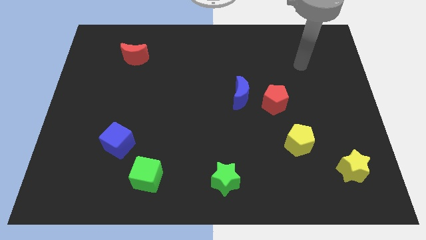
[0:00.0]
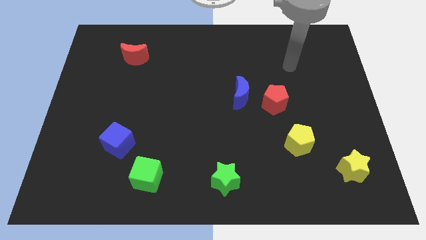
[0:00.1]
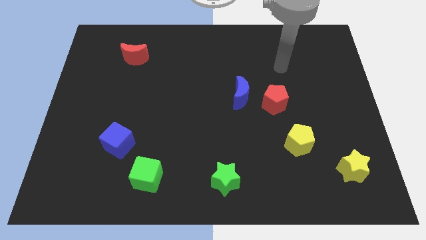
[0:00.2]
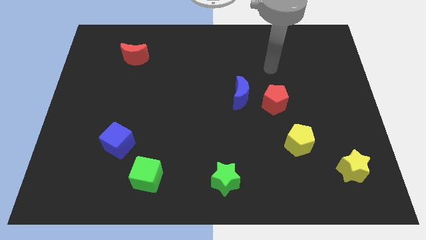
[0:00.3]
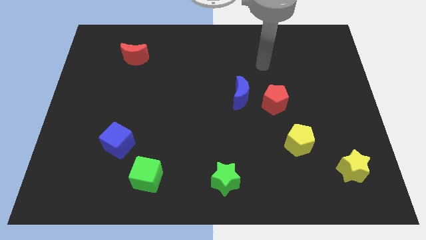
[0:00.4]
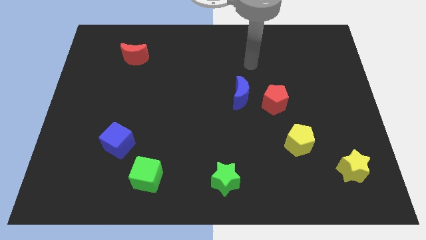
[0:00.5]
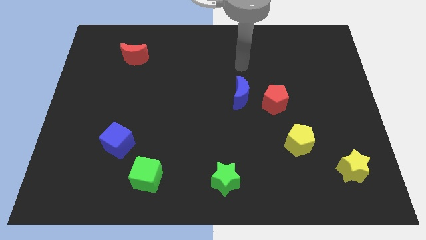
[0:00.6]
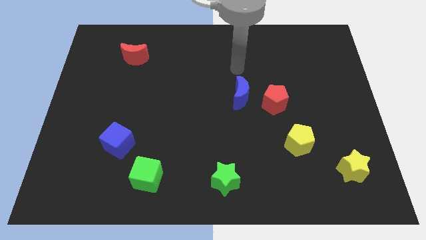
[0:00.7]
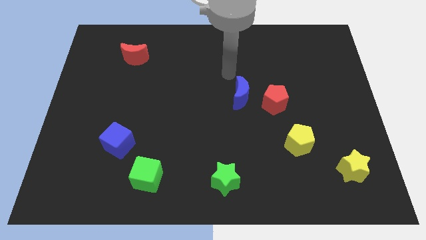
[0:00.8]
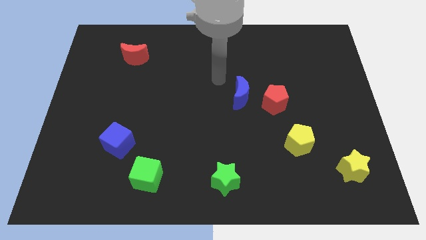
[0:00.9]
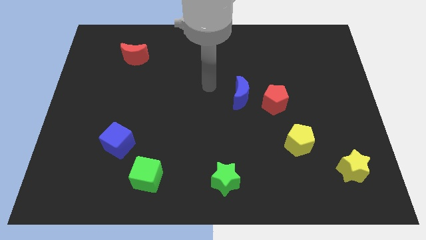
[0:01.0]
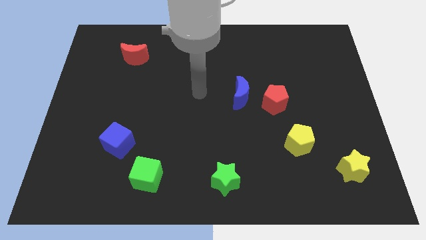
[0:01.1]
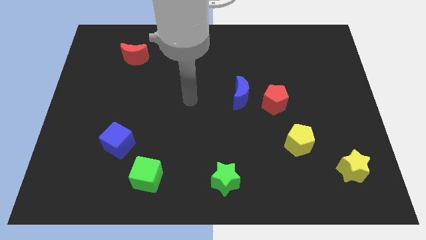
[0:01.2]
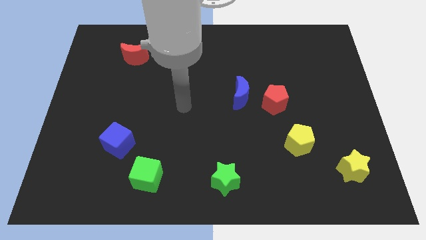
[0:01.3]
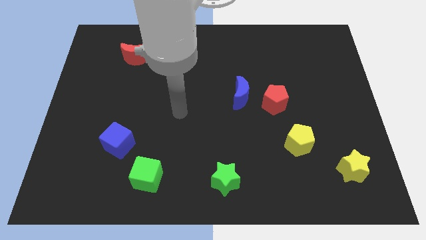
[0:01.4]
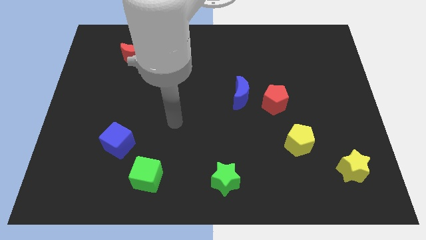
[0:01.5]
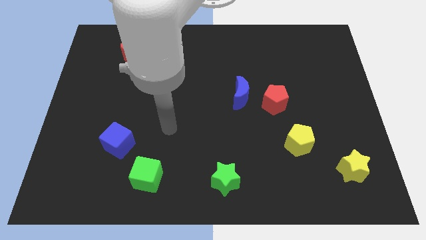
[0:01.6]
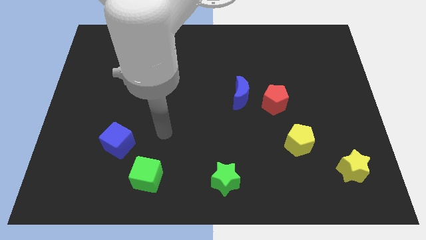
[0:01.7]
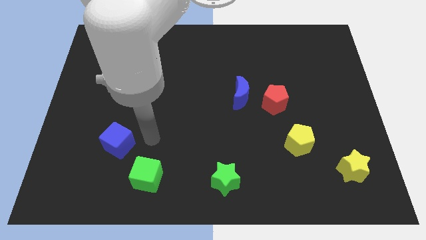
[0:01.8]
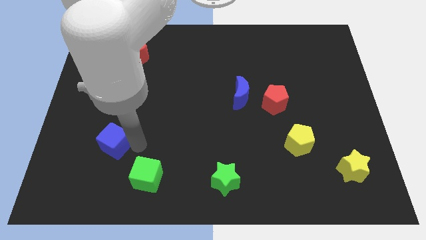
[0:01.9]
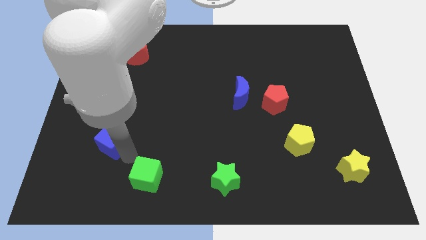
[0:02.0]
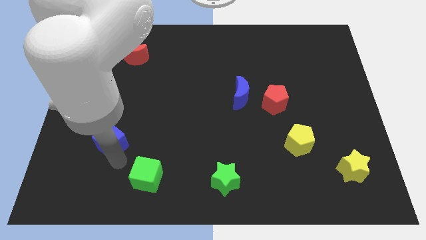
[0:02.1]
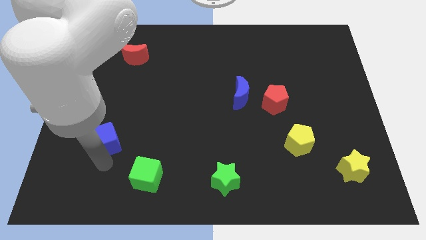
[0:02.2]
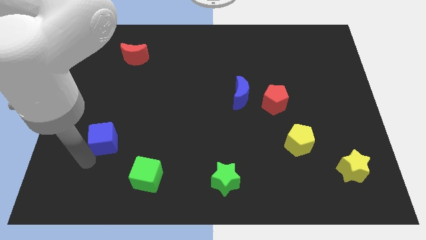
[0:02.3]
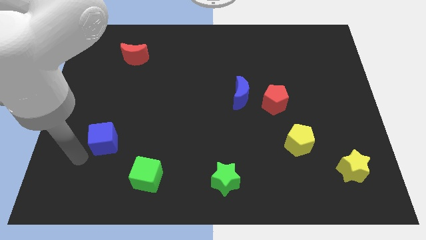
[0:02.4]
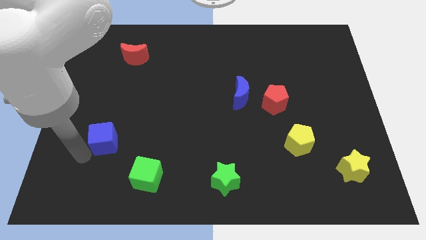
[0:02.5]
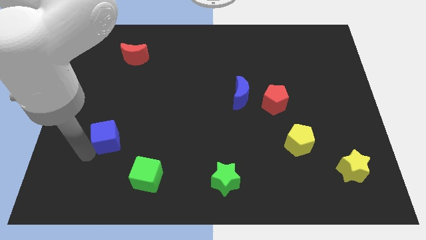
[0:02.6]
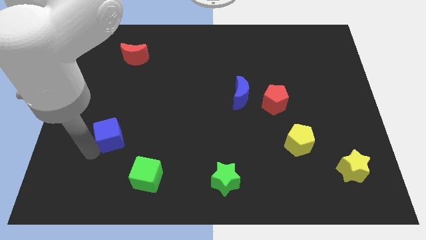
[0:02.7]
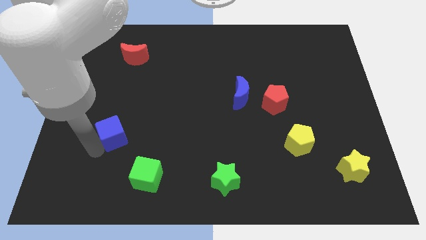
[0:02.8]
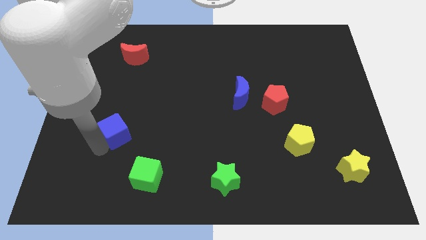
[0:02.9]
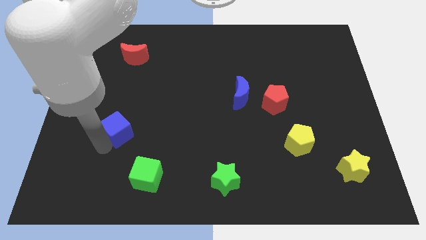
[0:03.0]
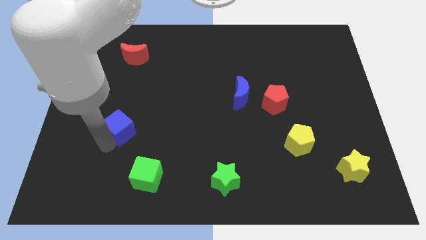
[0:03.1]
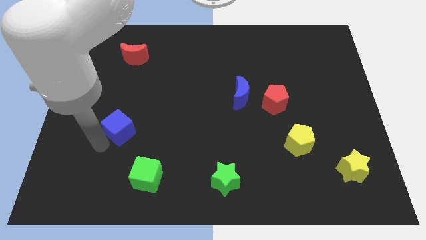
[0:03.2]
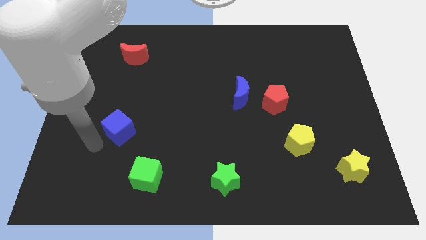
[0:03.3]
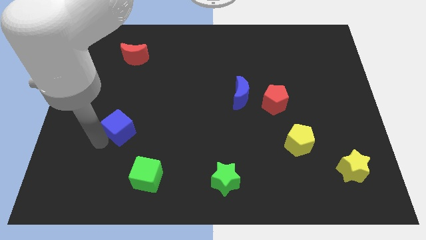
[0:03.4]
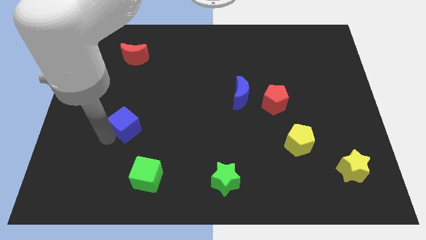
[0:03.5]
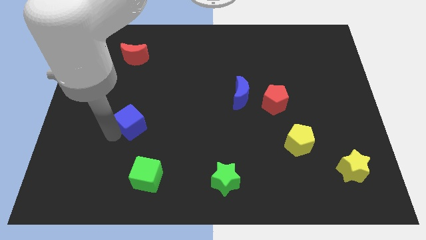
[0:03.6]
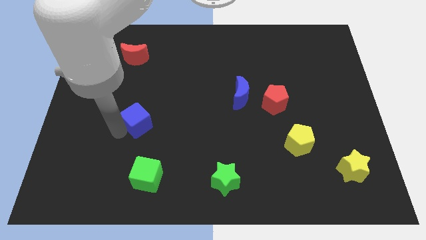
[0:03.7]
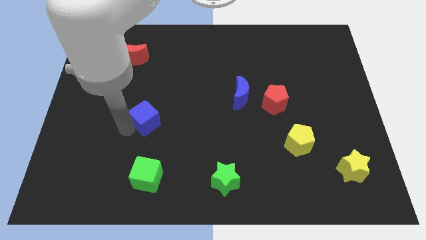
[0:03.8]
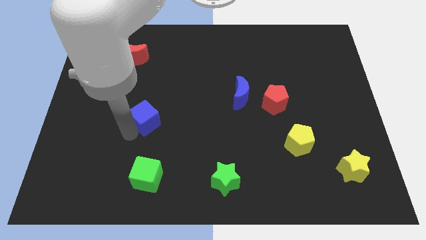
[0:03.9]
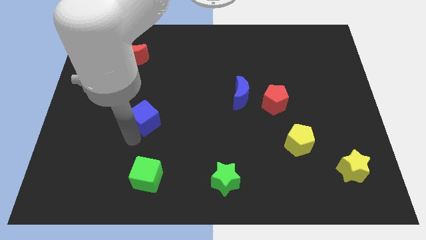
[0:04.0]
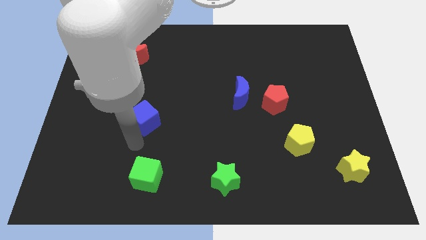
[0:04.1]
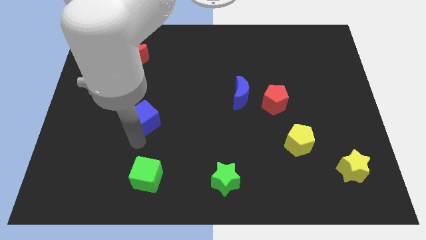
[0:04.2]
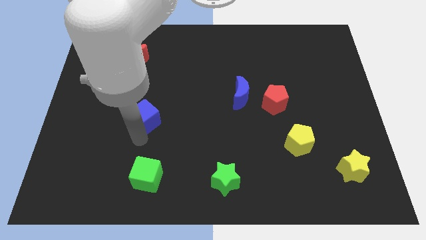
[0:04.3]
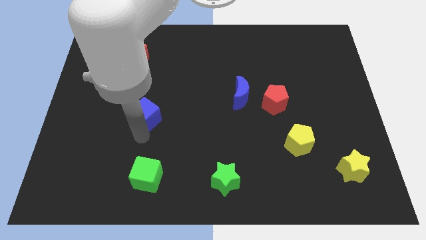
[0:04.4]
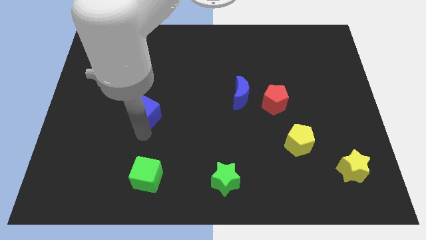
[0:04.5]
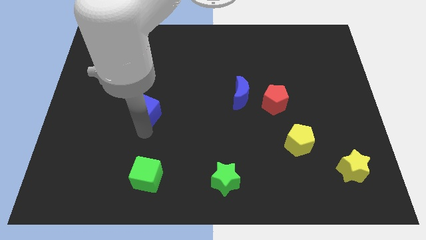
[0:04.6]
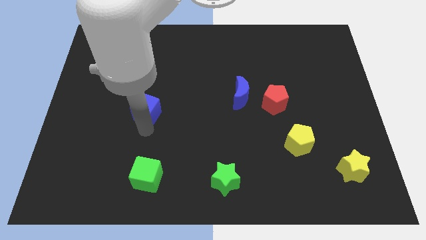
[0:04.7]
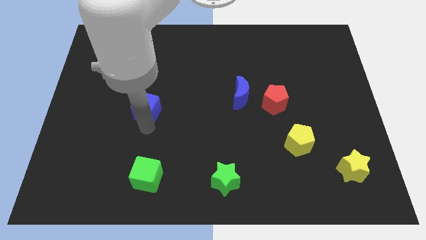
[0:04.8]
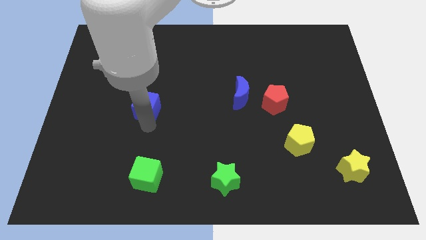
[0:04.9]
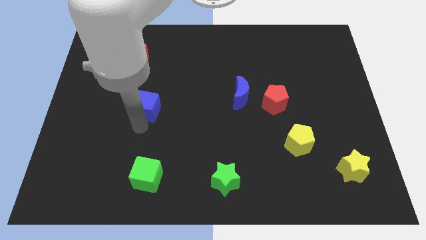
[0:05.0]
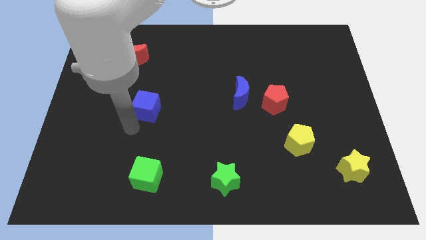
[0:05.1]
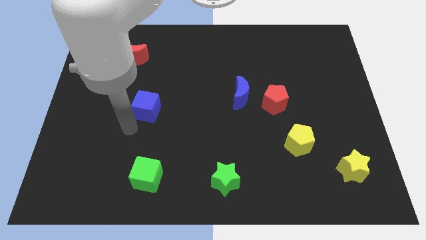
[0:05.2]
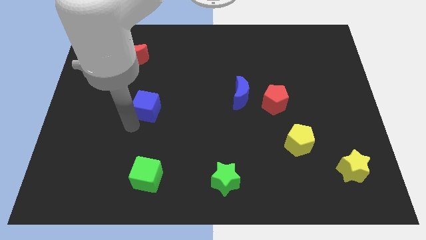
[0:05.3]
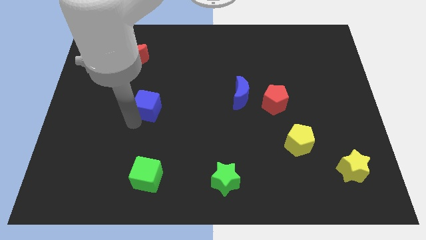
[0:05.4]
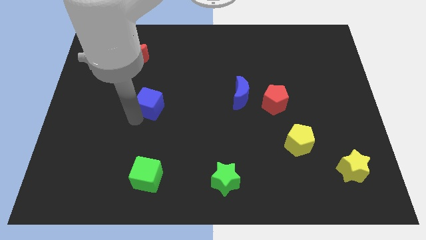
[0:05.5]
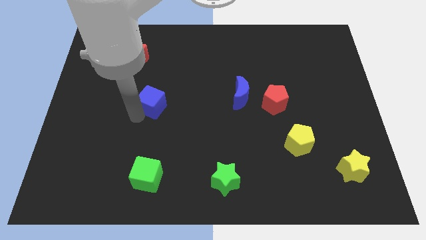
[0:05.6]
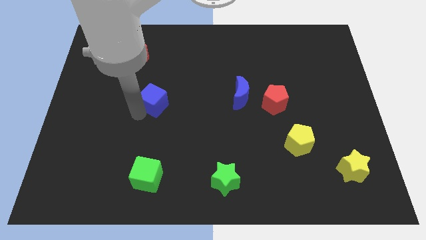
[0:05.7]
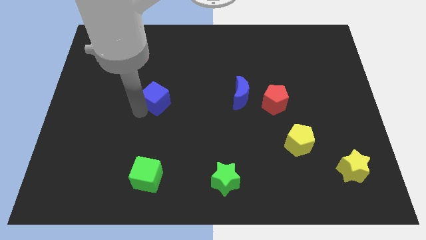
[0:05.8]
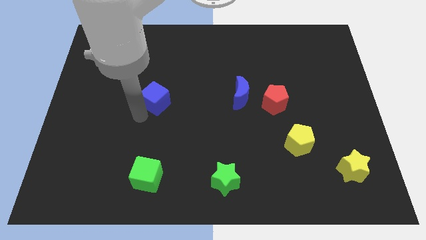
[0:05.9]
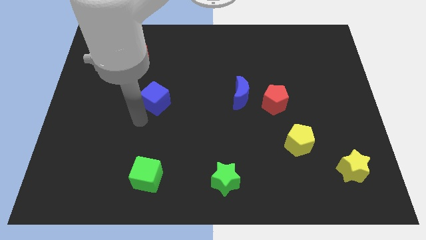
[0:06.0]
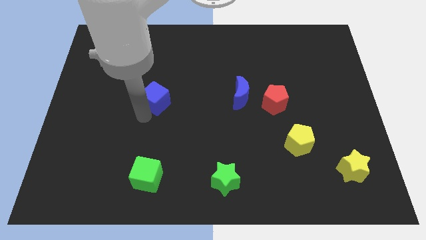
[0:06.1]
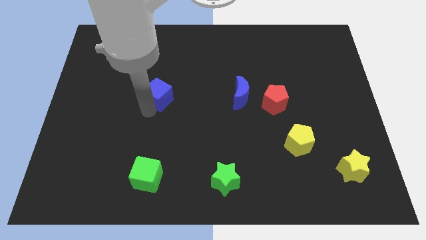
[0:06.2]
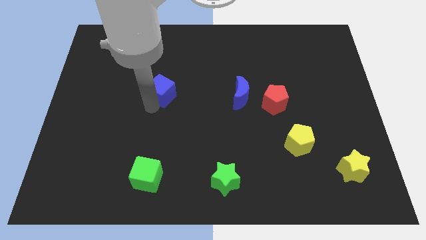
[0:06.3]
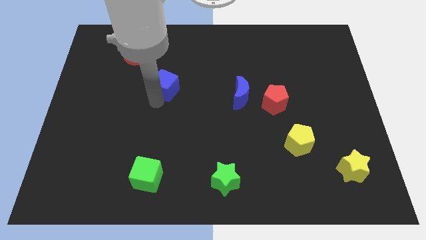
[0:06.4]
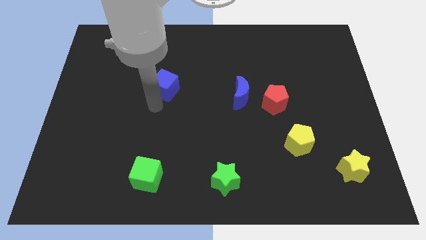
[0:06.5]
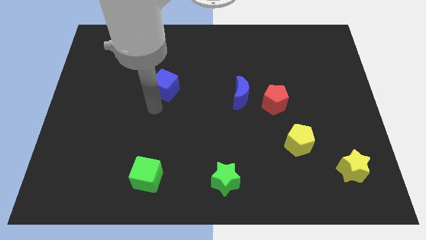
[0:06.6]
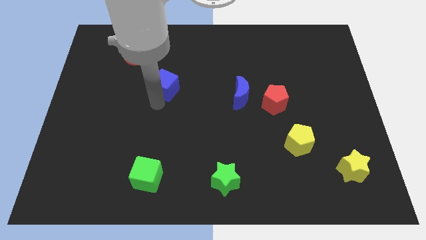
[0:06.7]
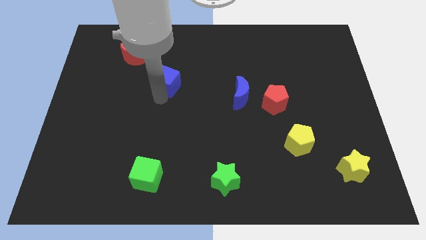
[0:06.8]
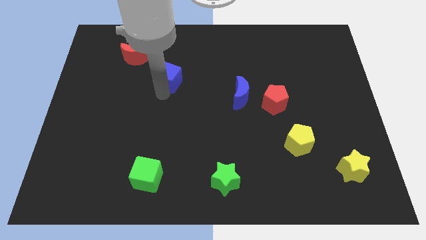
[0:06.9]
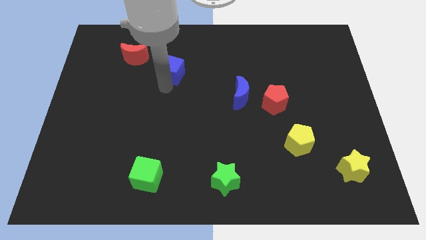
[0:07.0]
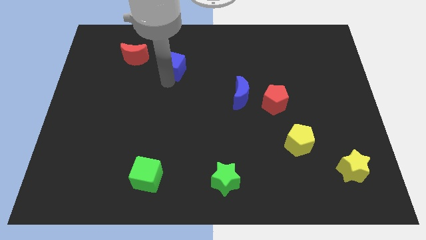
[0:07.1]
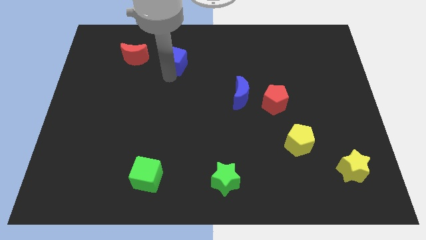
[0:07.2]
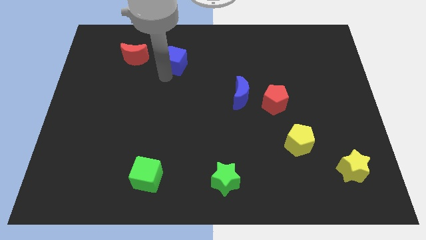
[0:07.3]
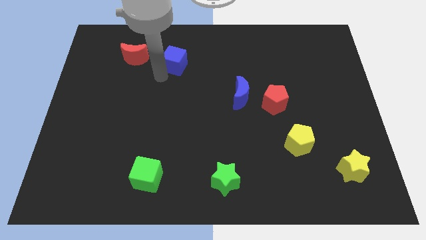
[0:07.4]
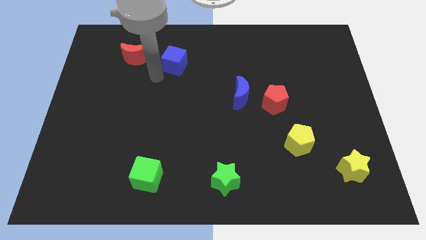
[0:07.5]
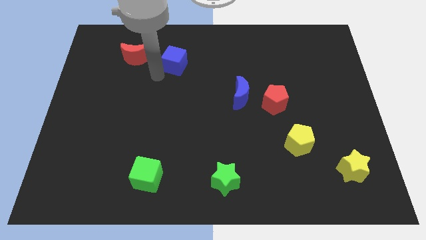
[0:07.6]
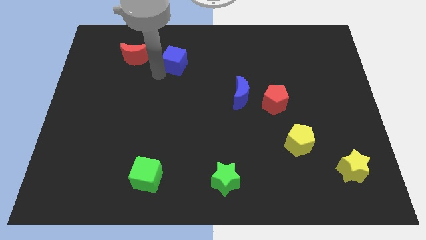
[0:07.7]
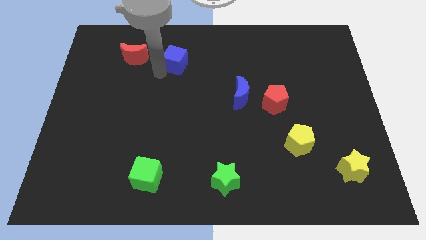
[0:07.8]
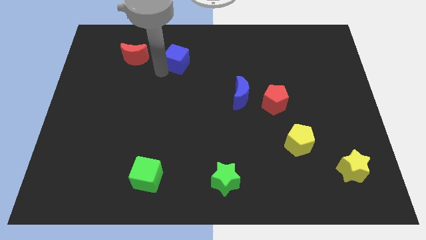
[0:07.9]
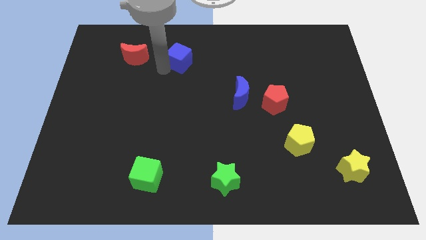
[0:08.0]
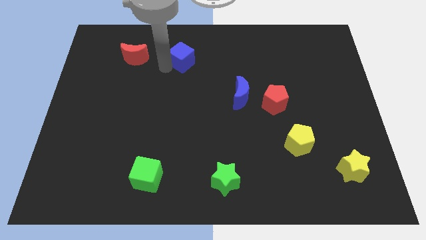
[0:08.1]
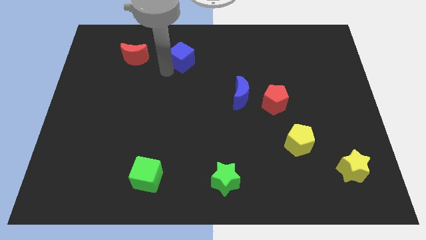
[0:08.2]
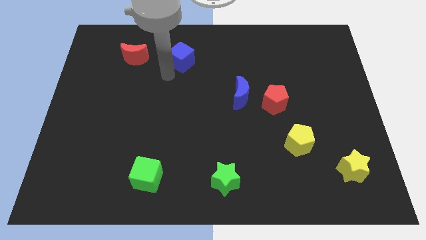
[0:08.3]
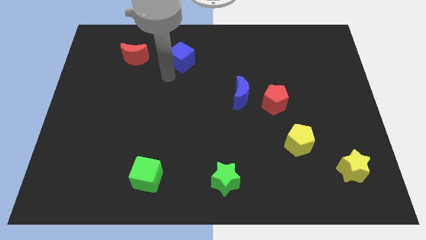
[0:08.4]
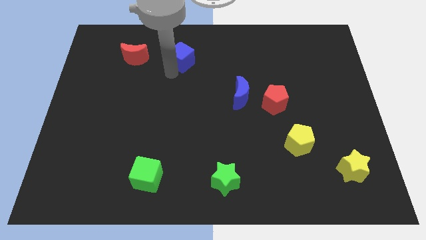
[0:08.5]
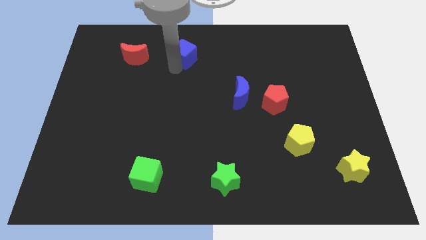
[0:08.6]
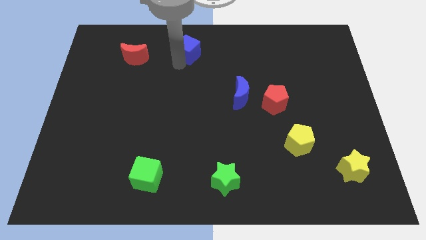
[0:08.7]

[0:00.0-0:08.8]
move the blue cube to the towards your base
